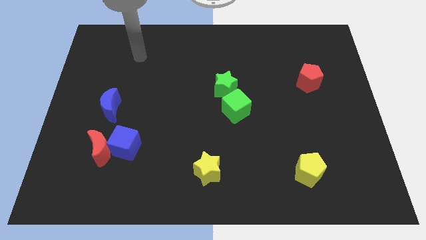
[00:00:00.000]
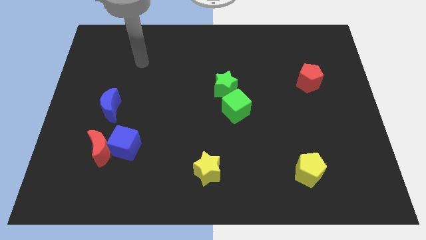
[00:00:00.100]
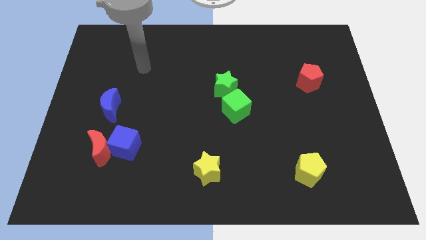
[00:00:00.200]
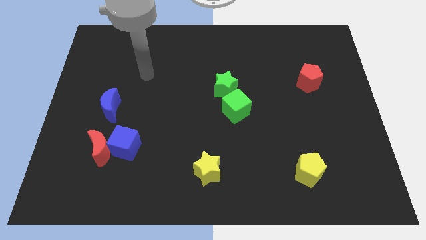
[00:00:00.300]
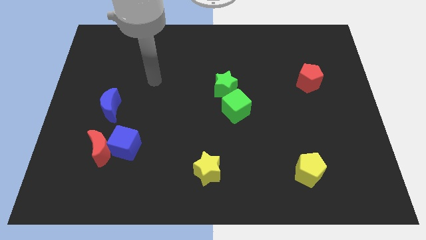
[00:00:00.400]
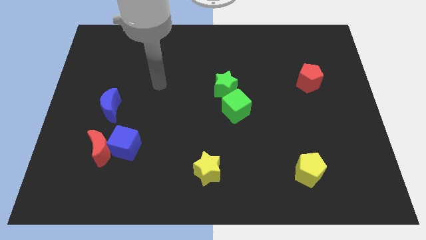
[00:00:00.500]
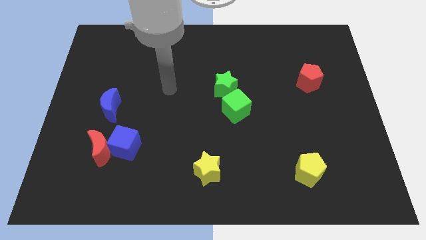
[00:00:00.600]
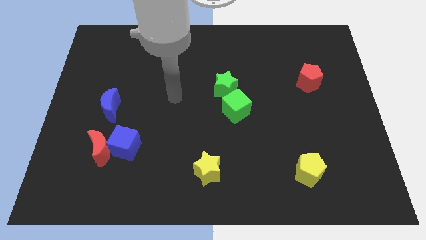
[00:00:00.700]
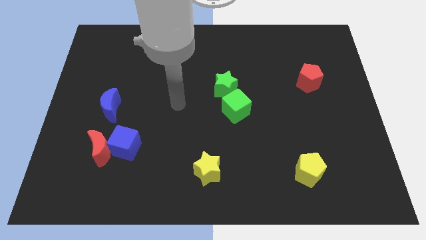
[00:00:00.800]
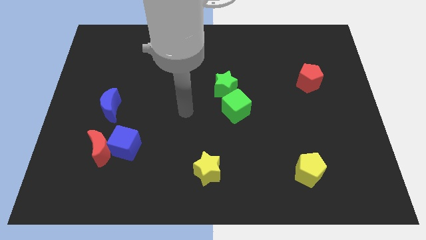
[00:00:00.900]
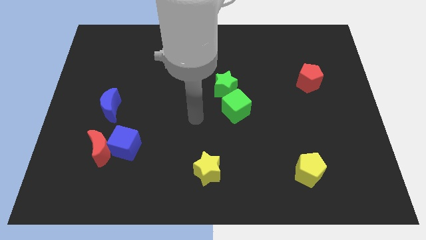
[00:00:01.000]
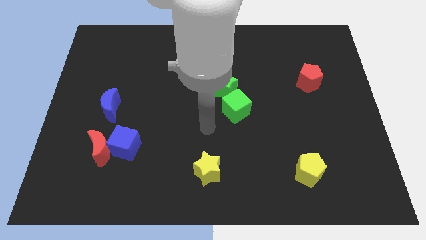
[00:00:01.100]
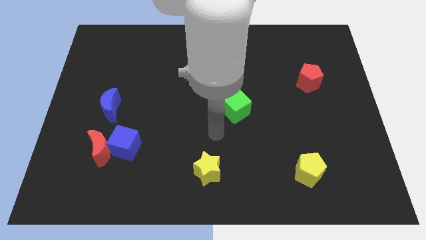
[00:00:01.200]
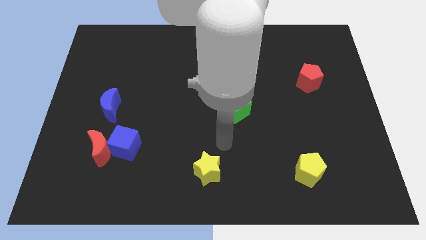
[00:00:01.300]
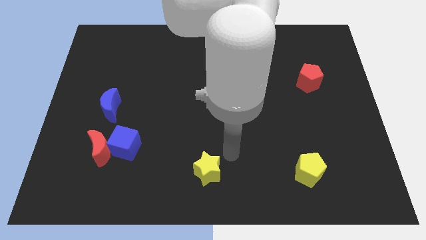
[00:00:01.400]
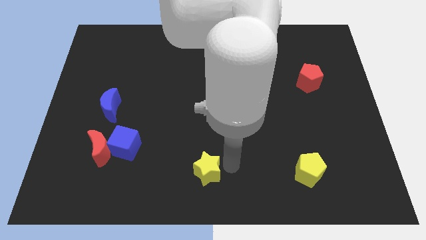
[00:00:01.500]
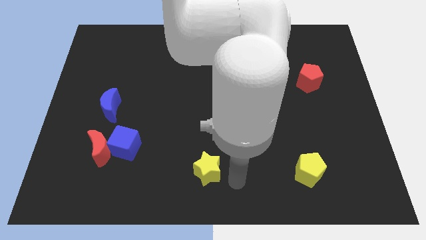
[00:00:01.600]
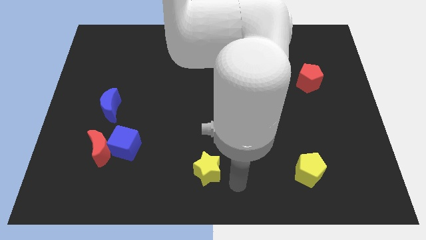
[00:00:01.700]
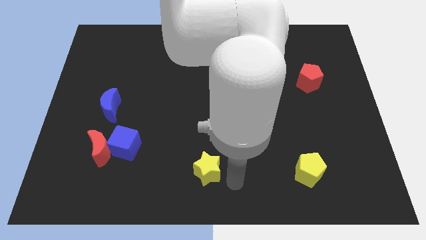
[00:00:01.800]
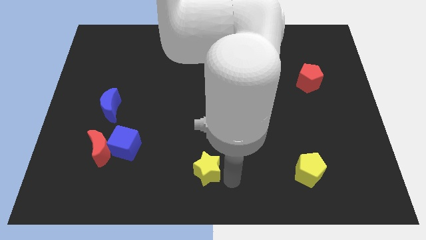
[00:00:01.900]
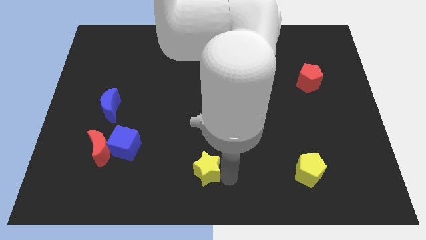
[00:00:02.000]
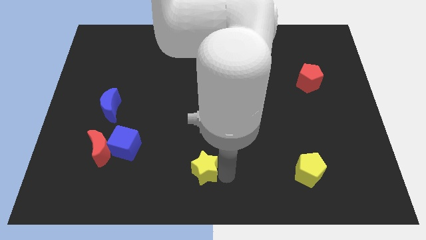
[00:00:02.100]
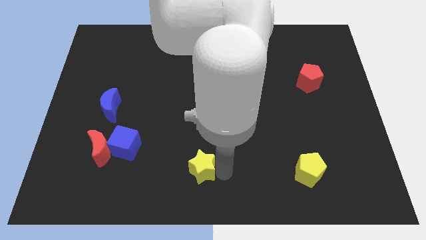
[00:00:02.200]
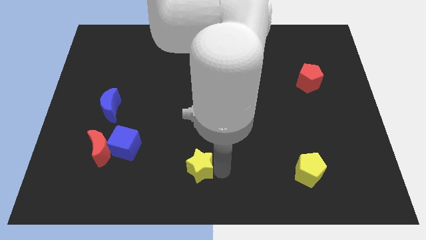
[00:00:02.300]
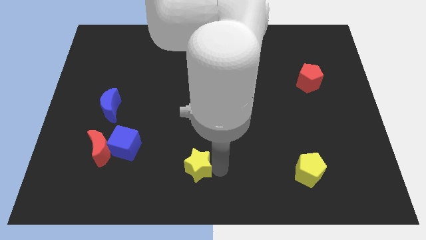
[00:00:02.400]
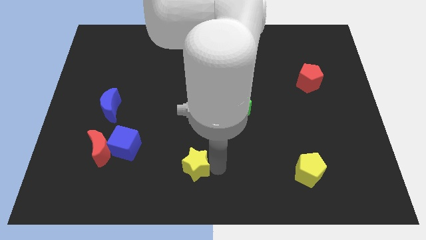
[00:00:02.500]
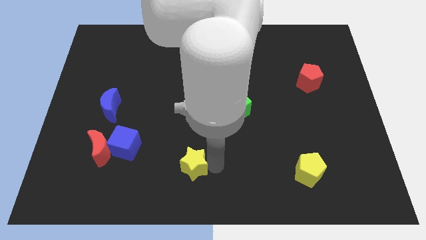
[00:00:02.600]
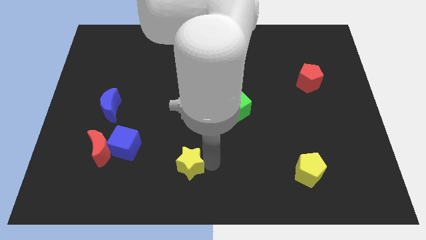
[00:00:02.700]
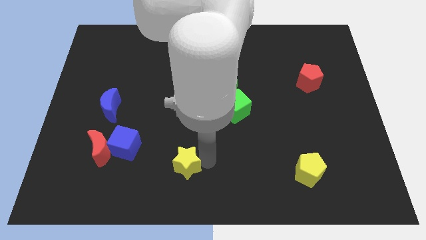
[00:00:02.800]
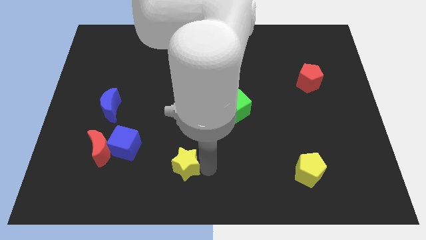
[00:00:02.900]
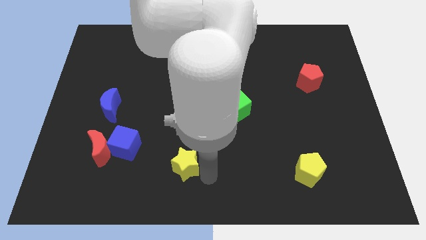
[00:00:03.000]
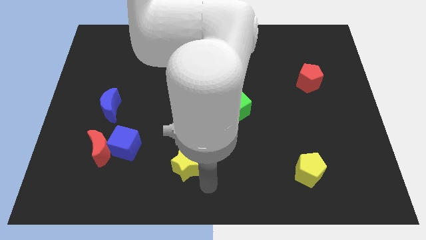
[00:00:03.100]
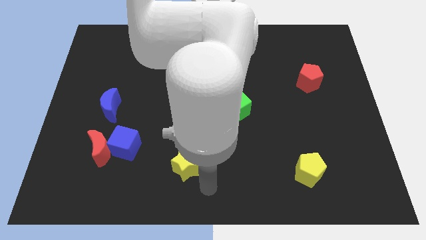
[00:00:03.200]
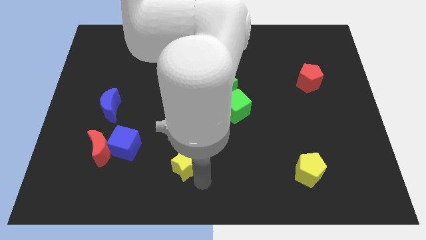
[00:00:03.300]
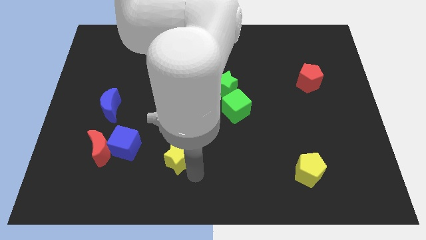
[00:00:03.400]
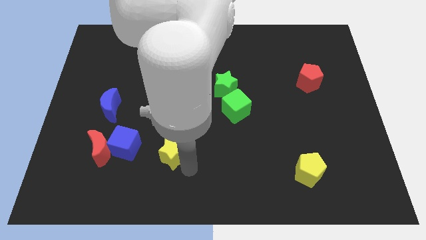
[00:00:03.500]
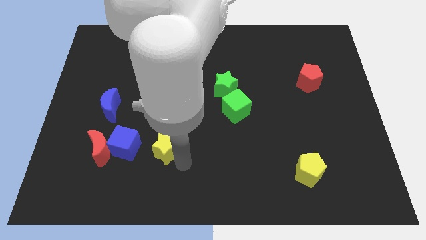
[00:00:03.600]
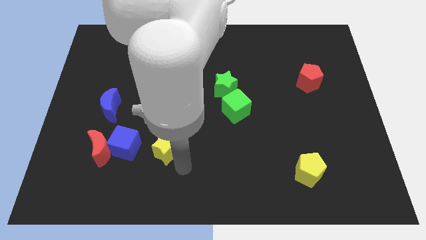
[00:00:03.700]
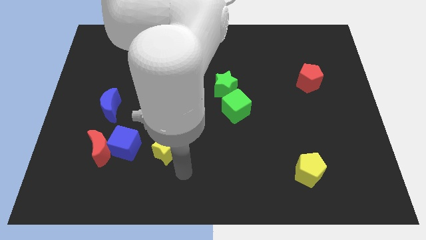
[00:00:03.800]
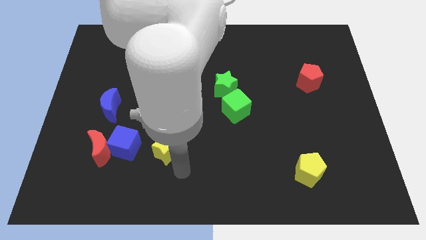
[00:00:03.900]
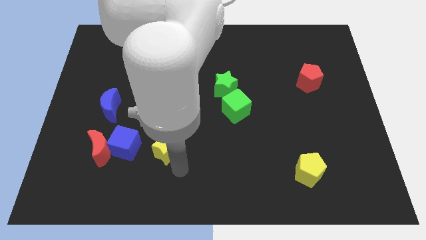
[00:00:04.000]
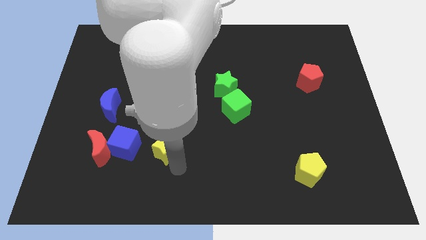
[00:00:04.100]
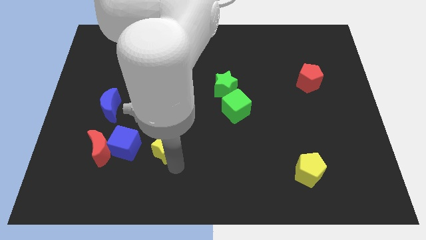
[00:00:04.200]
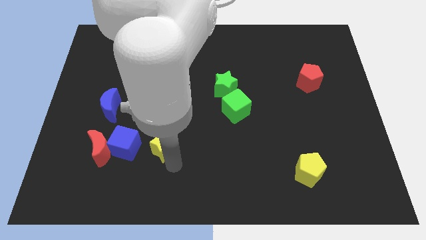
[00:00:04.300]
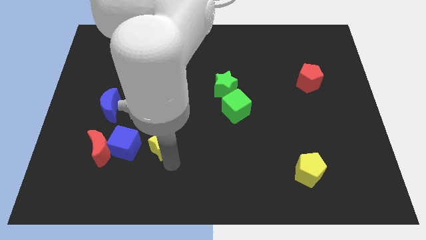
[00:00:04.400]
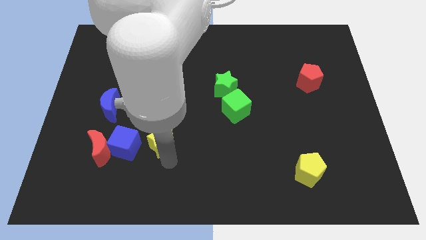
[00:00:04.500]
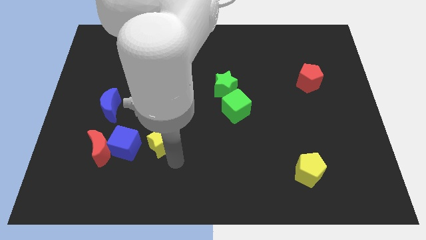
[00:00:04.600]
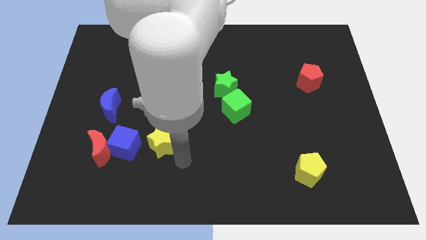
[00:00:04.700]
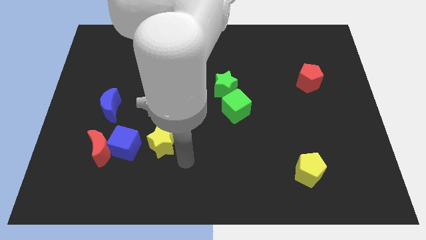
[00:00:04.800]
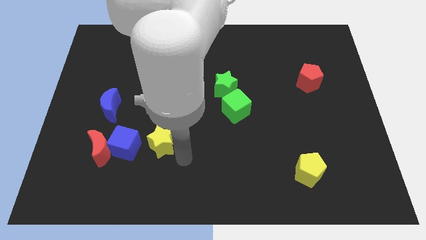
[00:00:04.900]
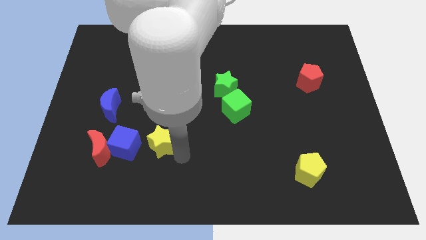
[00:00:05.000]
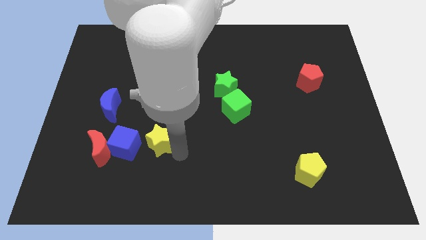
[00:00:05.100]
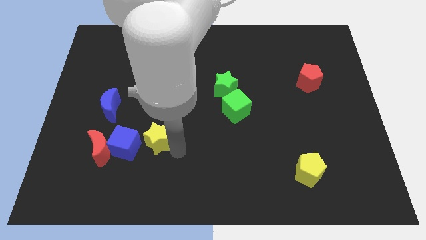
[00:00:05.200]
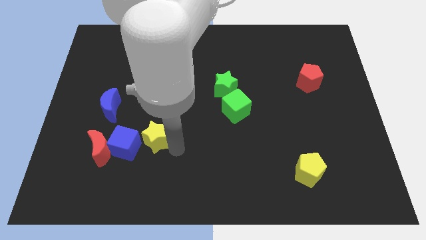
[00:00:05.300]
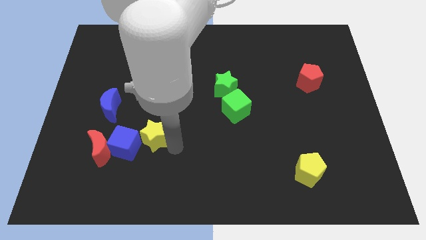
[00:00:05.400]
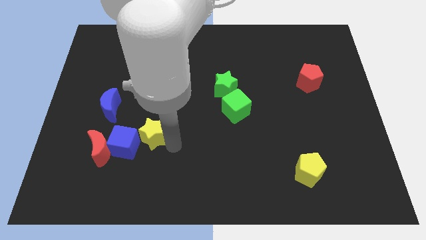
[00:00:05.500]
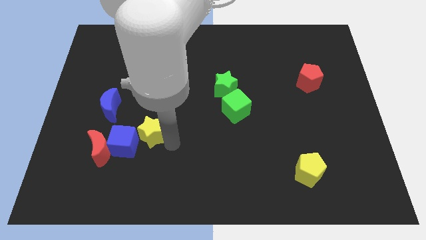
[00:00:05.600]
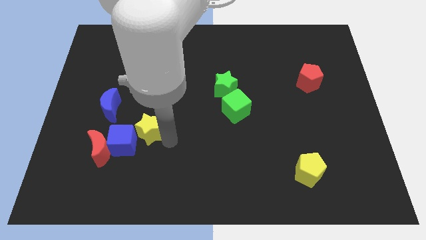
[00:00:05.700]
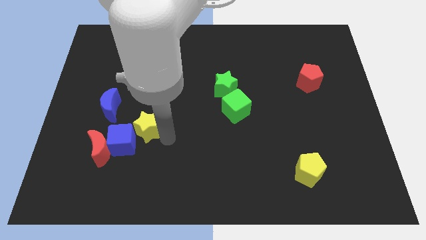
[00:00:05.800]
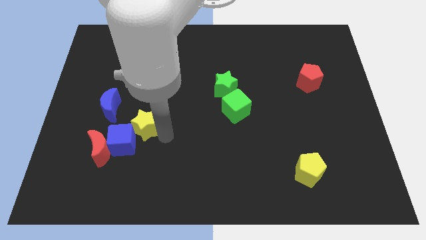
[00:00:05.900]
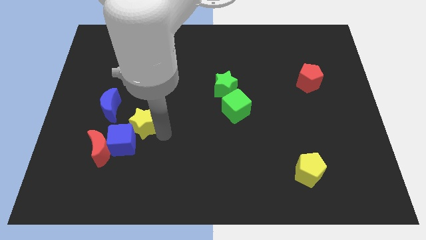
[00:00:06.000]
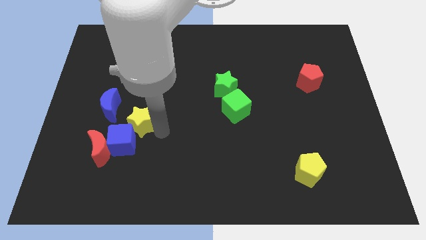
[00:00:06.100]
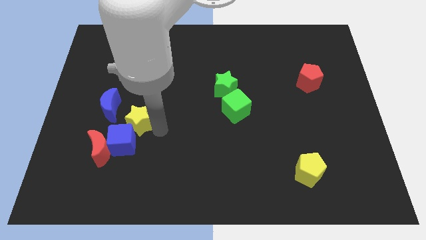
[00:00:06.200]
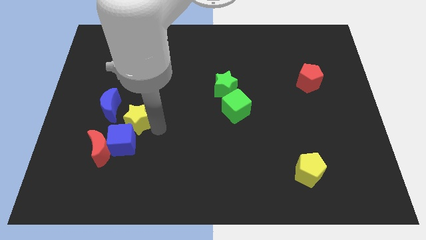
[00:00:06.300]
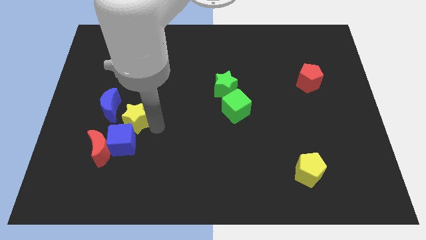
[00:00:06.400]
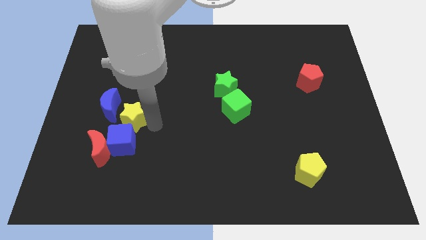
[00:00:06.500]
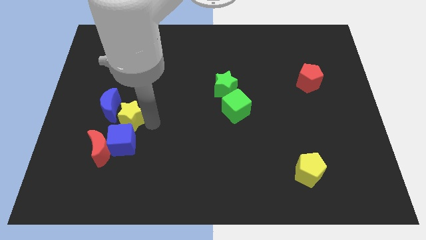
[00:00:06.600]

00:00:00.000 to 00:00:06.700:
slide the yellow star towards the blue moon
